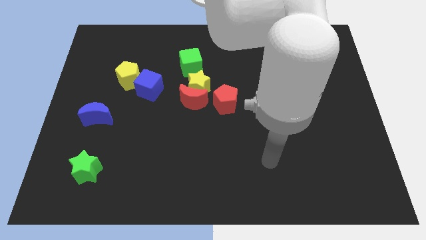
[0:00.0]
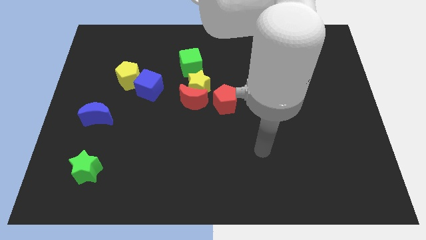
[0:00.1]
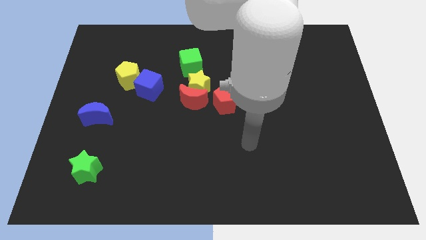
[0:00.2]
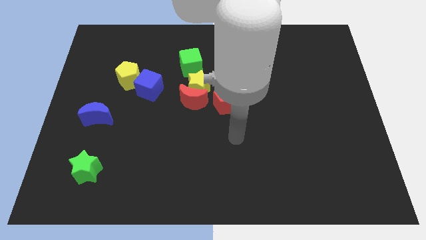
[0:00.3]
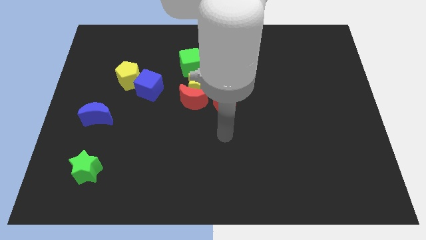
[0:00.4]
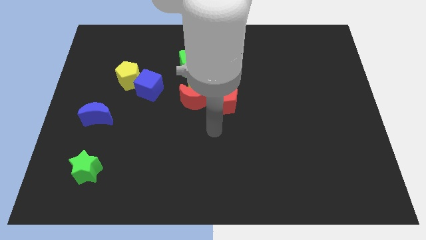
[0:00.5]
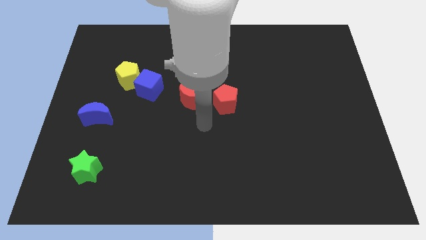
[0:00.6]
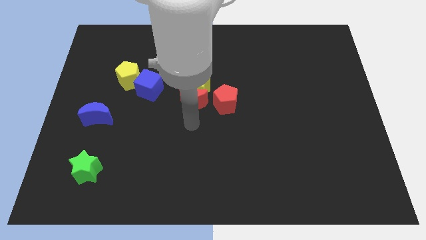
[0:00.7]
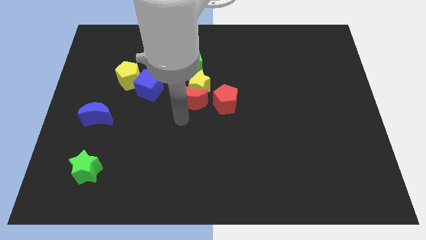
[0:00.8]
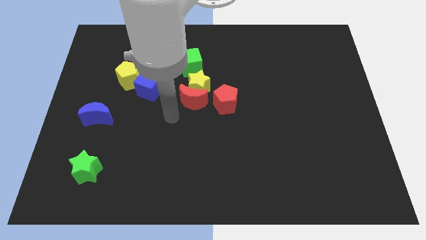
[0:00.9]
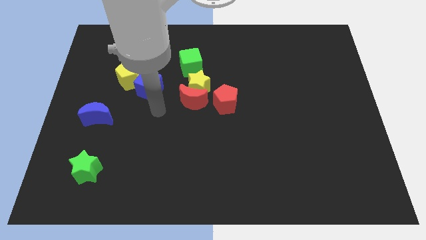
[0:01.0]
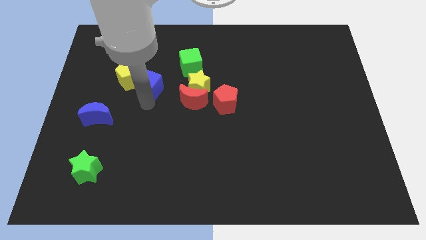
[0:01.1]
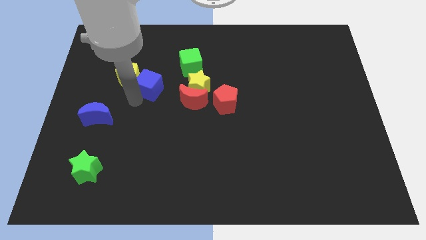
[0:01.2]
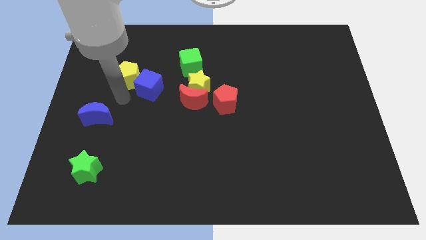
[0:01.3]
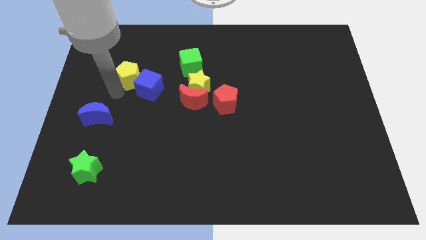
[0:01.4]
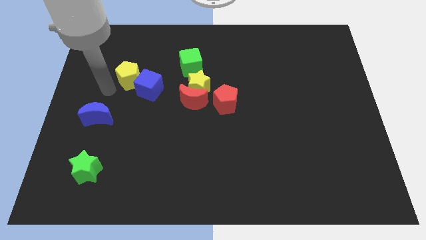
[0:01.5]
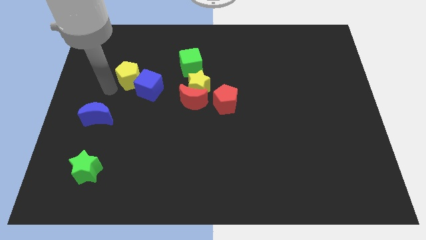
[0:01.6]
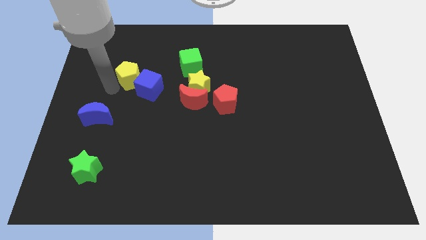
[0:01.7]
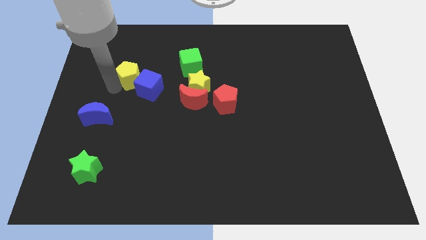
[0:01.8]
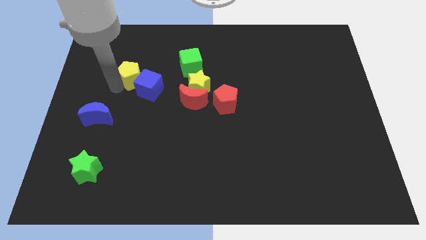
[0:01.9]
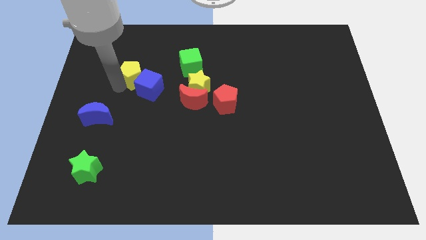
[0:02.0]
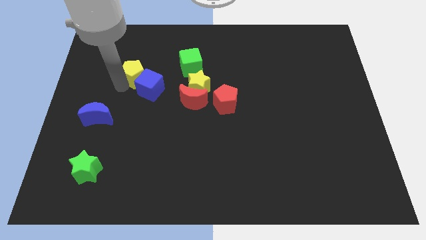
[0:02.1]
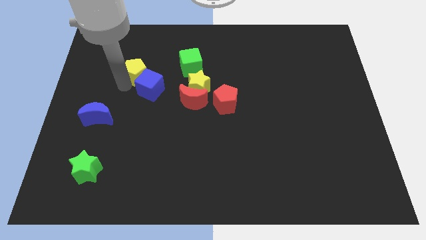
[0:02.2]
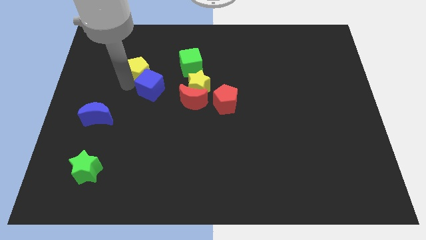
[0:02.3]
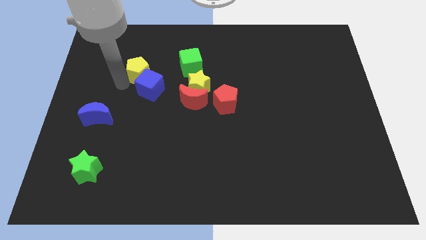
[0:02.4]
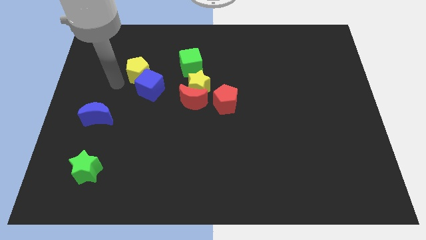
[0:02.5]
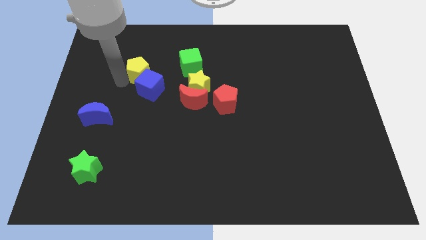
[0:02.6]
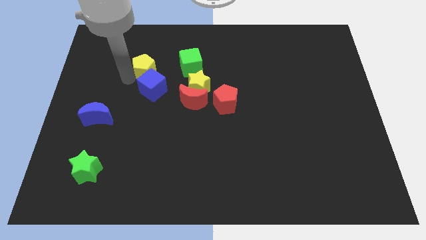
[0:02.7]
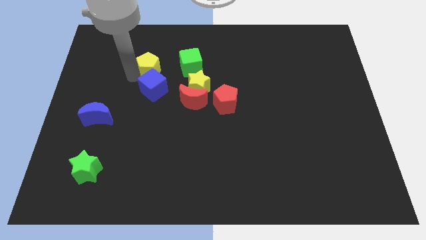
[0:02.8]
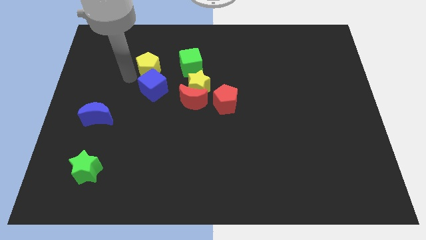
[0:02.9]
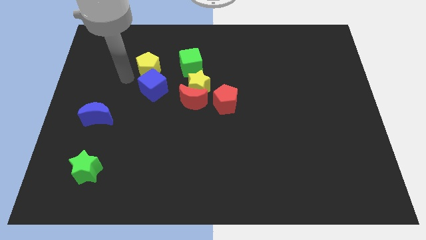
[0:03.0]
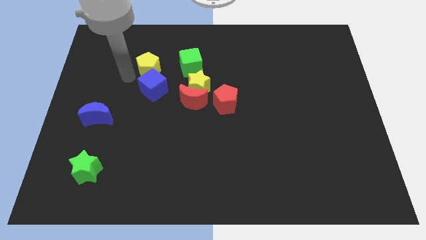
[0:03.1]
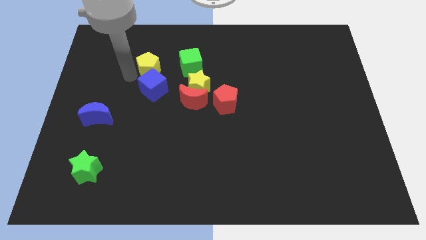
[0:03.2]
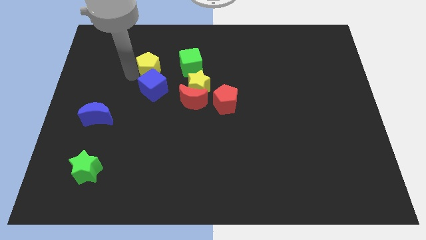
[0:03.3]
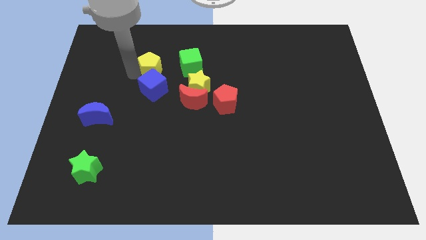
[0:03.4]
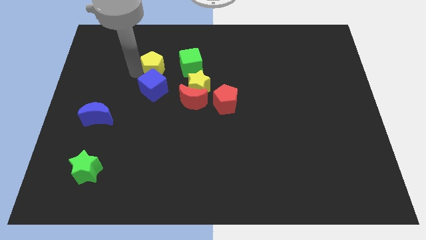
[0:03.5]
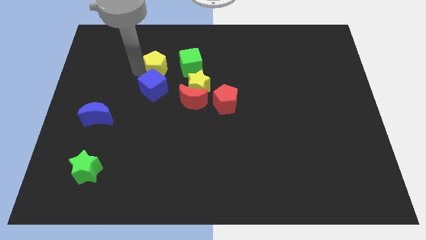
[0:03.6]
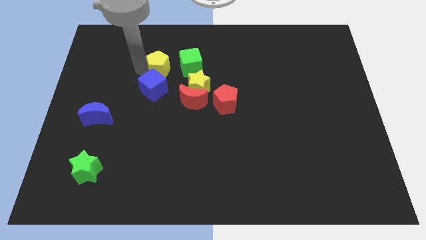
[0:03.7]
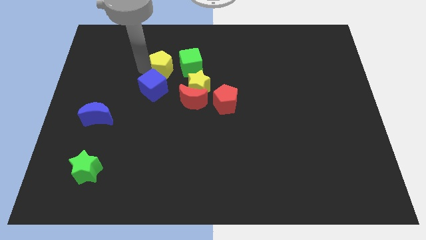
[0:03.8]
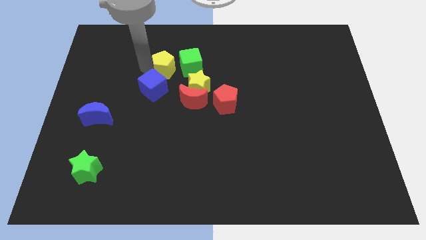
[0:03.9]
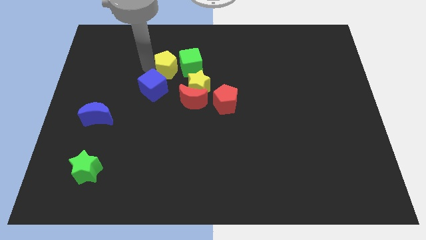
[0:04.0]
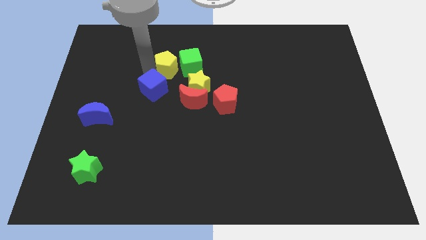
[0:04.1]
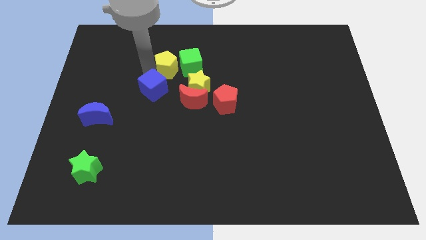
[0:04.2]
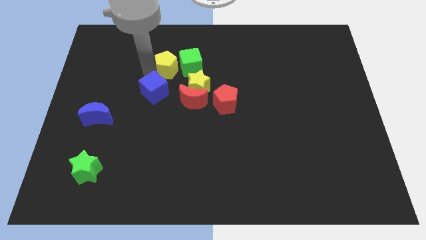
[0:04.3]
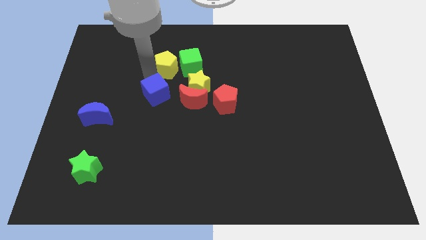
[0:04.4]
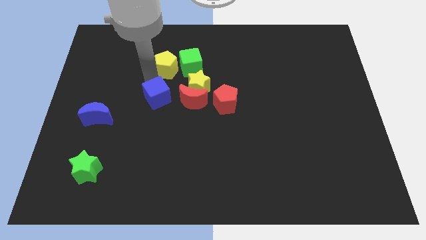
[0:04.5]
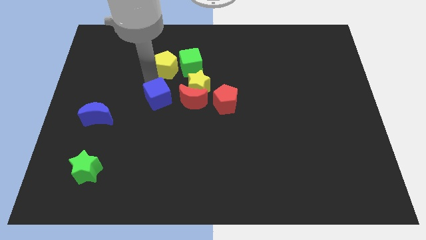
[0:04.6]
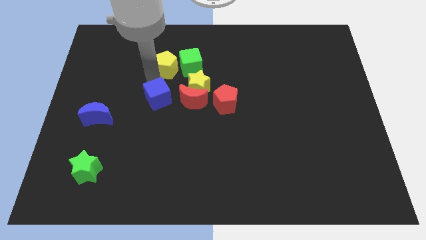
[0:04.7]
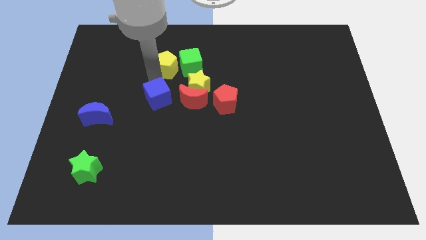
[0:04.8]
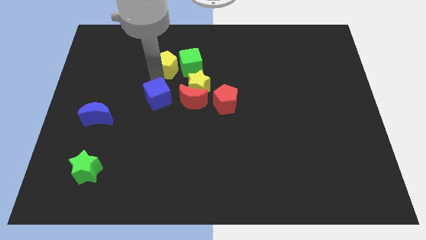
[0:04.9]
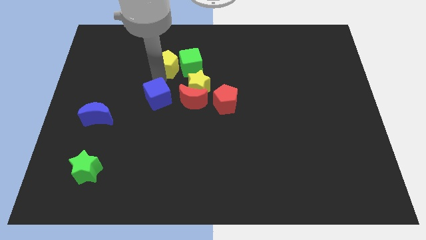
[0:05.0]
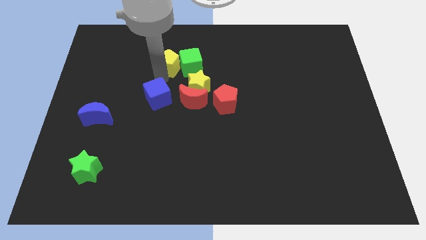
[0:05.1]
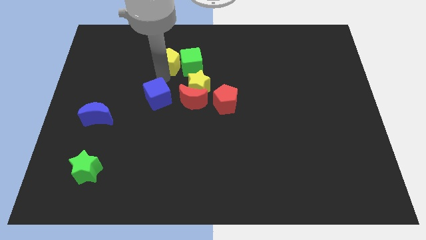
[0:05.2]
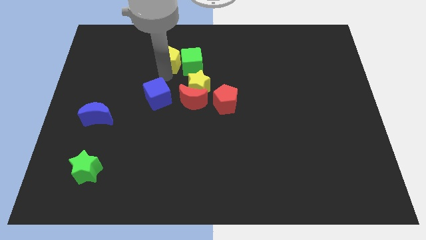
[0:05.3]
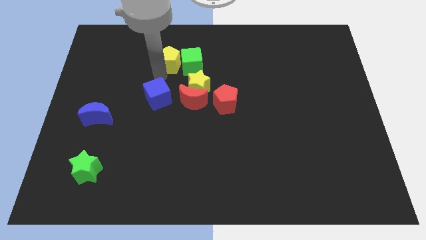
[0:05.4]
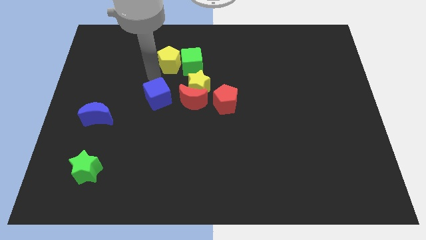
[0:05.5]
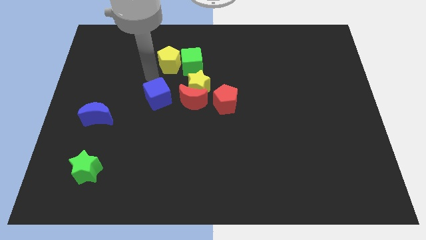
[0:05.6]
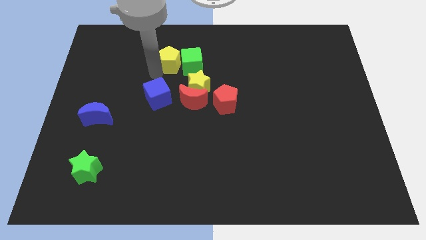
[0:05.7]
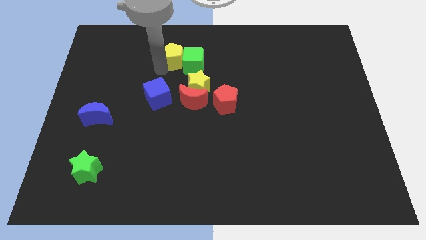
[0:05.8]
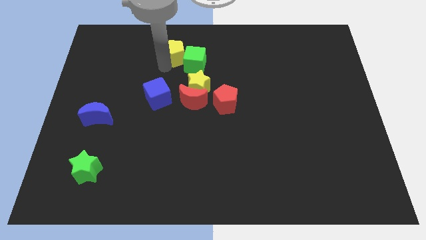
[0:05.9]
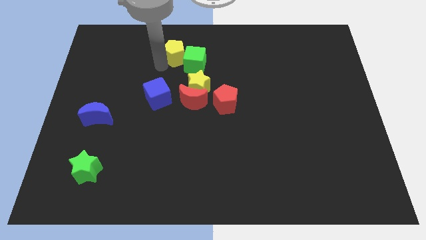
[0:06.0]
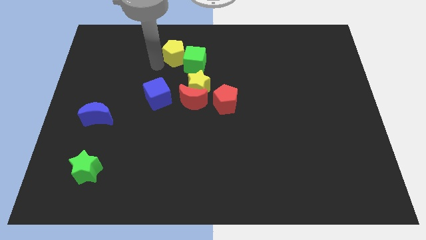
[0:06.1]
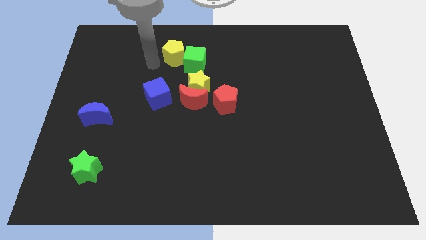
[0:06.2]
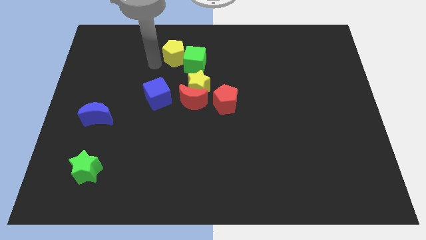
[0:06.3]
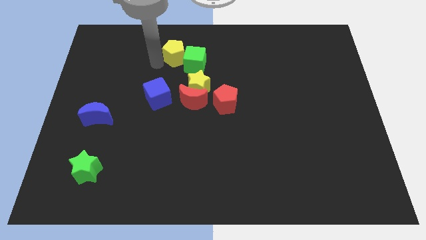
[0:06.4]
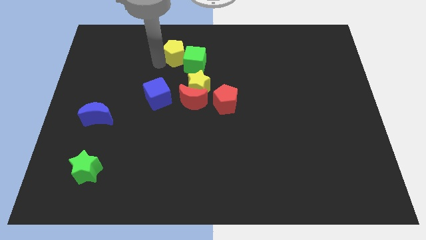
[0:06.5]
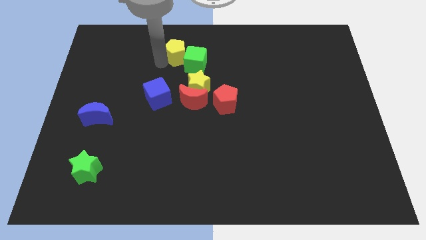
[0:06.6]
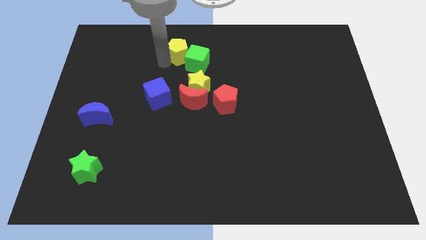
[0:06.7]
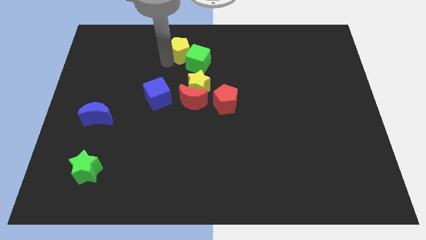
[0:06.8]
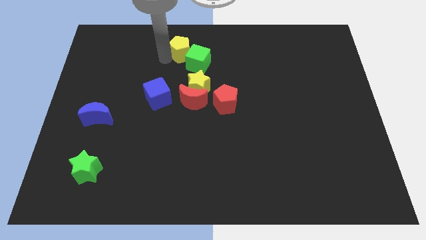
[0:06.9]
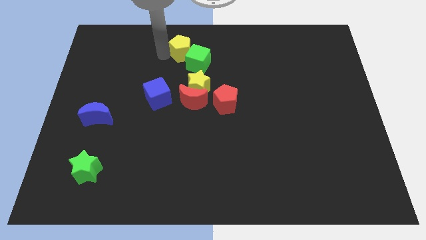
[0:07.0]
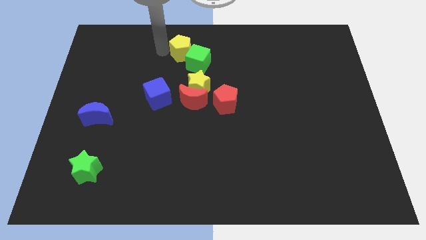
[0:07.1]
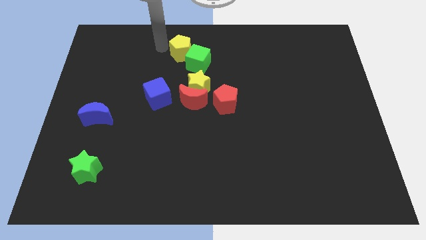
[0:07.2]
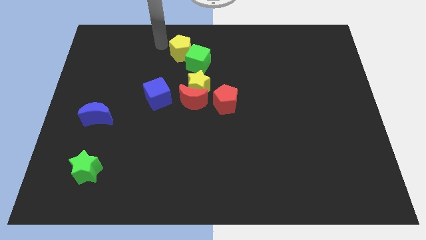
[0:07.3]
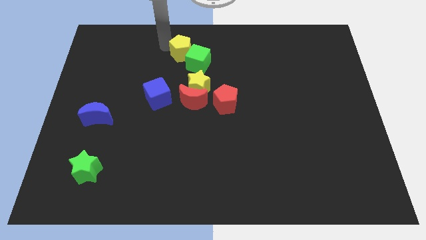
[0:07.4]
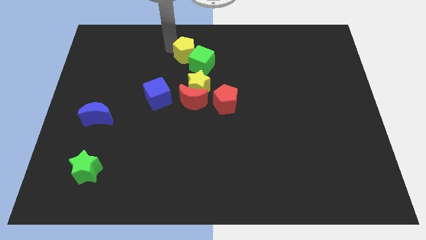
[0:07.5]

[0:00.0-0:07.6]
put the yellow pentagon above the yellow star
